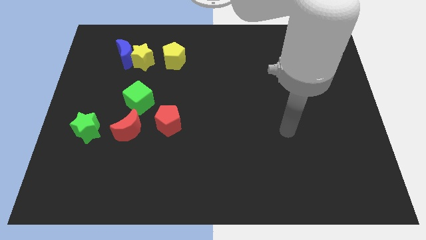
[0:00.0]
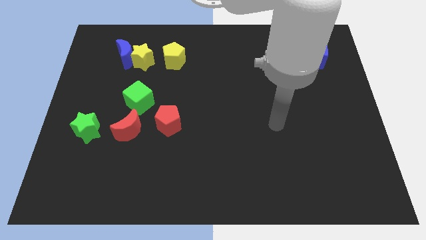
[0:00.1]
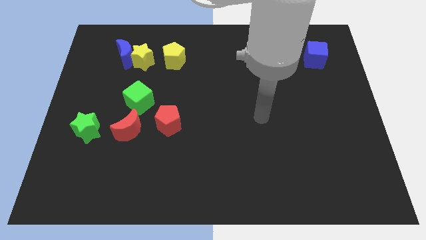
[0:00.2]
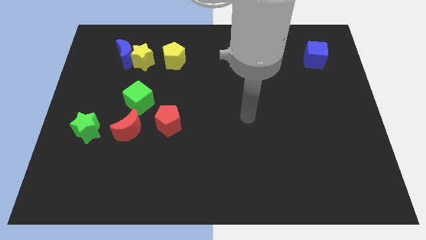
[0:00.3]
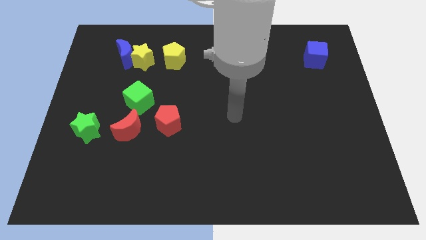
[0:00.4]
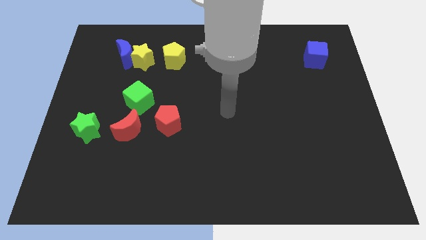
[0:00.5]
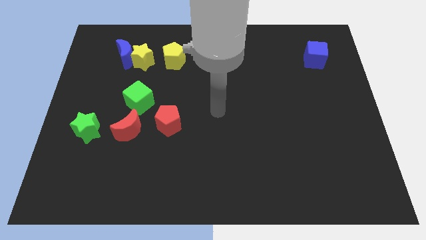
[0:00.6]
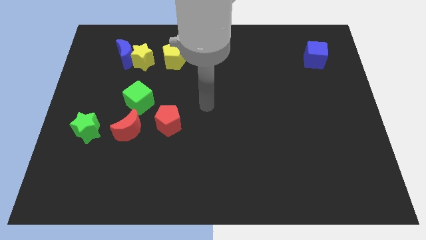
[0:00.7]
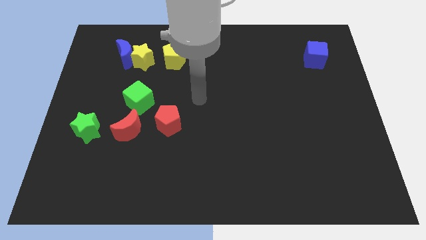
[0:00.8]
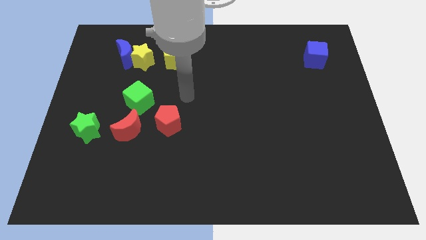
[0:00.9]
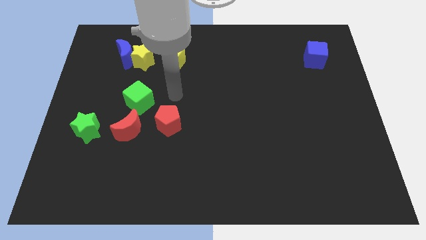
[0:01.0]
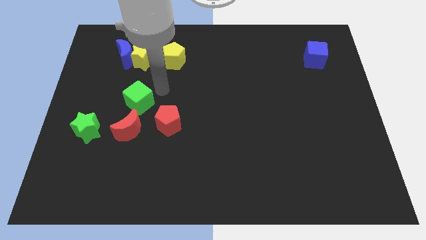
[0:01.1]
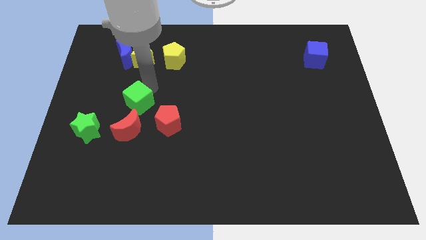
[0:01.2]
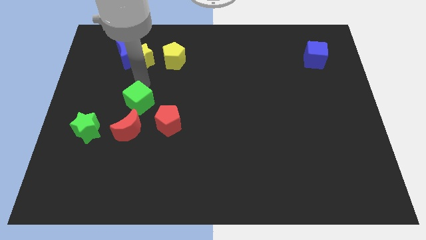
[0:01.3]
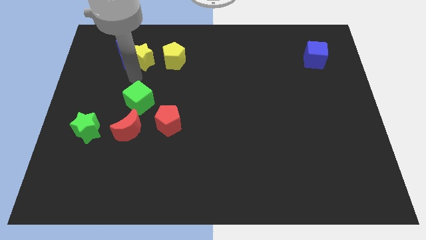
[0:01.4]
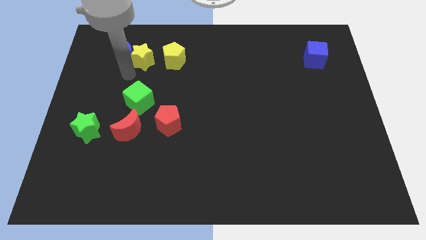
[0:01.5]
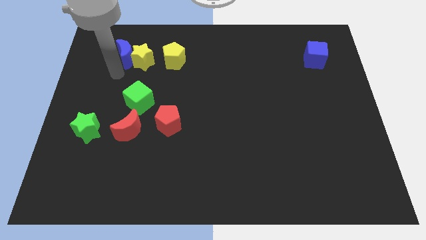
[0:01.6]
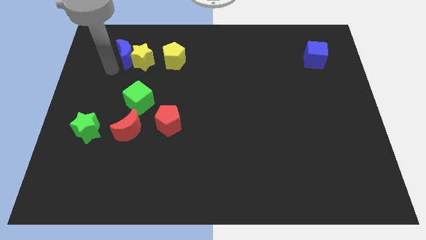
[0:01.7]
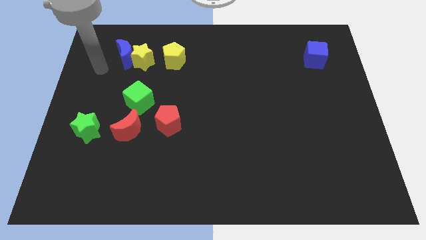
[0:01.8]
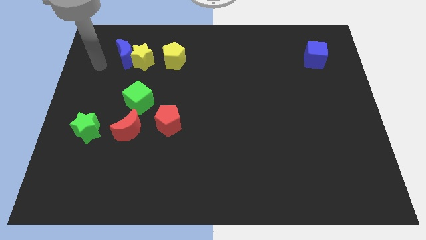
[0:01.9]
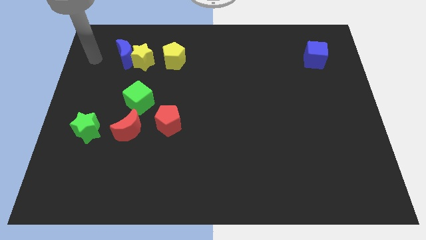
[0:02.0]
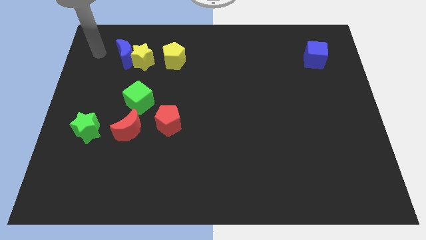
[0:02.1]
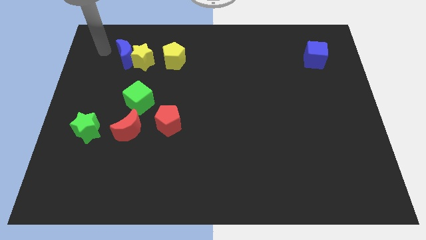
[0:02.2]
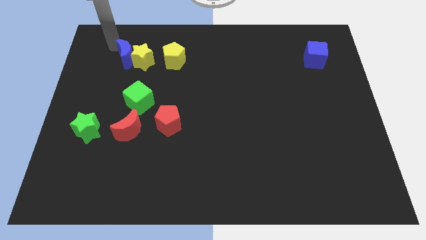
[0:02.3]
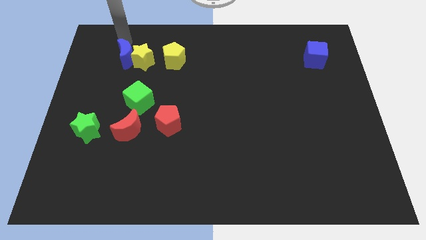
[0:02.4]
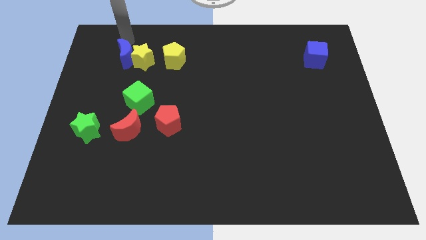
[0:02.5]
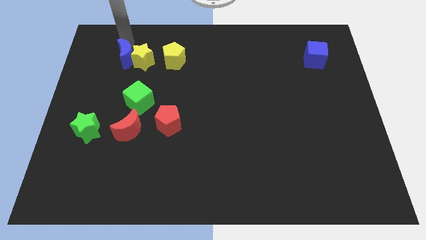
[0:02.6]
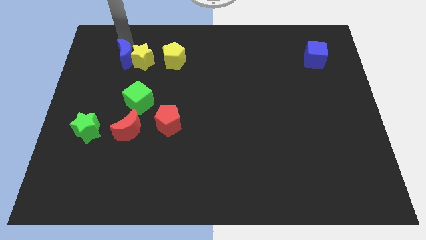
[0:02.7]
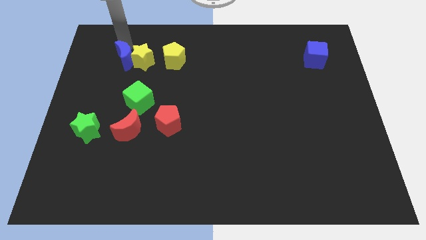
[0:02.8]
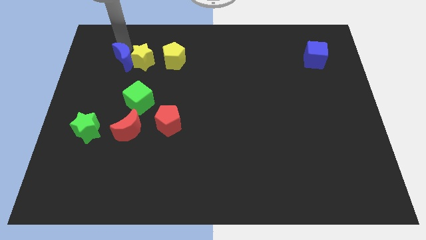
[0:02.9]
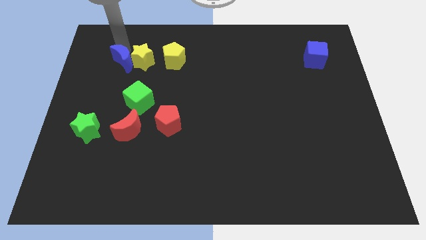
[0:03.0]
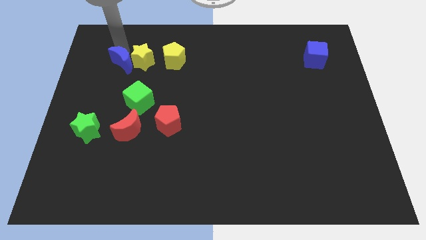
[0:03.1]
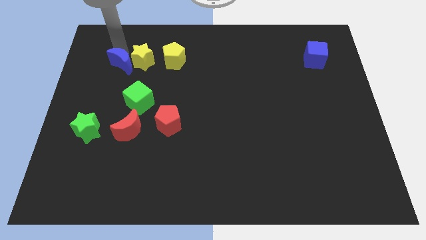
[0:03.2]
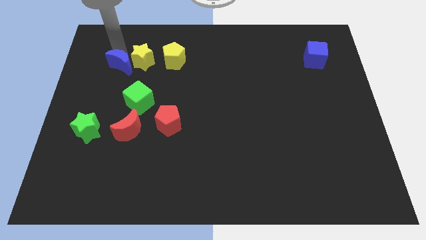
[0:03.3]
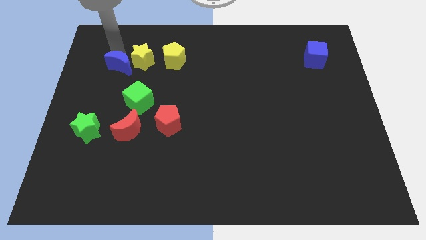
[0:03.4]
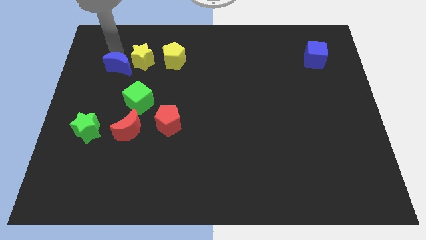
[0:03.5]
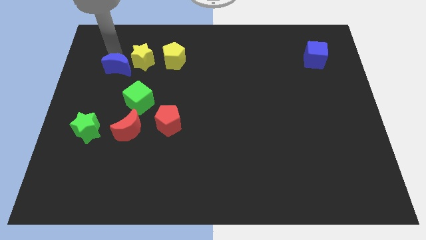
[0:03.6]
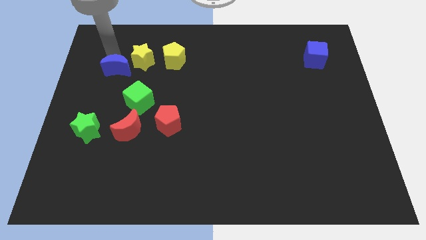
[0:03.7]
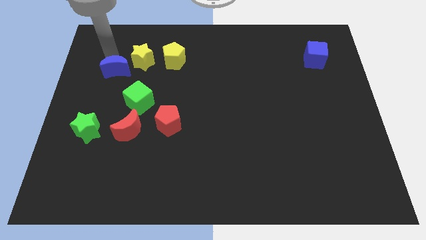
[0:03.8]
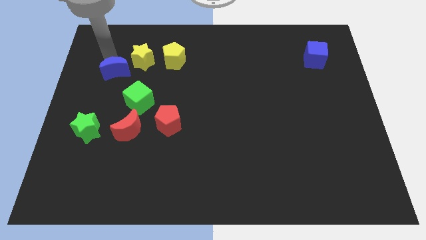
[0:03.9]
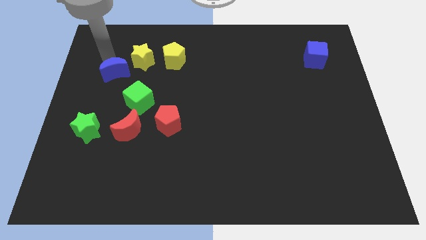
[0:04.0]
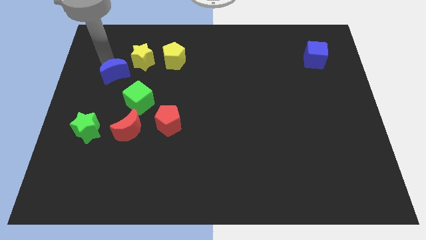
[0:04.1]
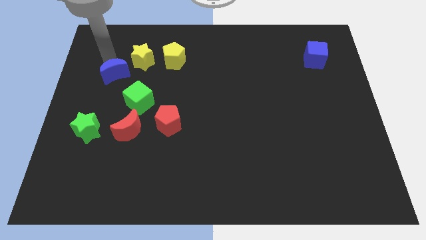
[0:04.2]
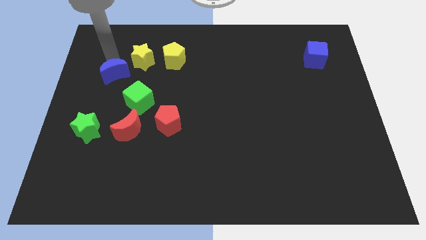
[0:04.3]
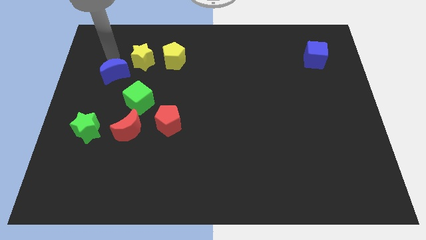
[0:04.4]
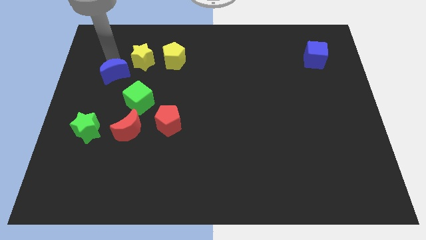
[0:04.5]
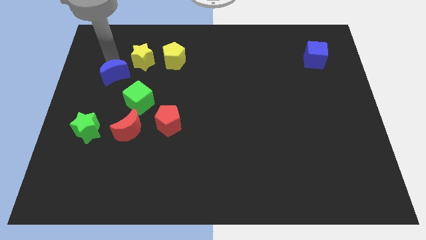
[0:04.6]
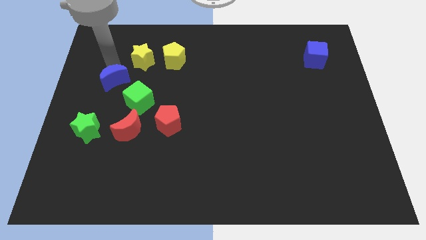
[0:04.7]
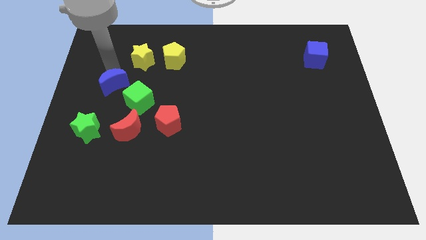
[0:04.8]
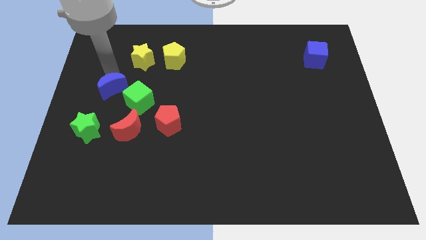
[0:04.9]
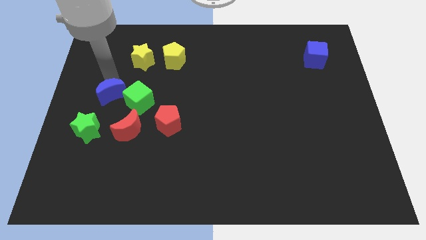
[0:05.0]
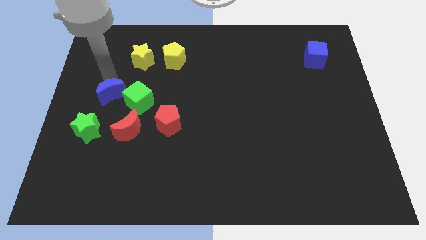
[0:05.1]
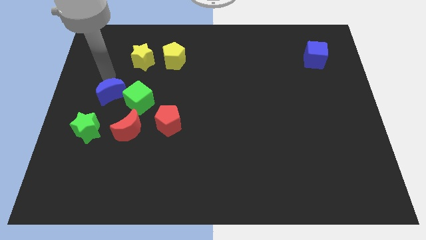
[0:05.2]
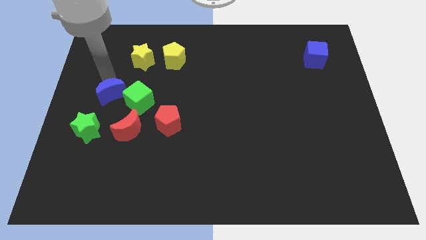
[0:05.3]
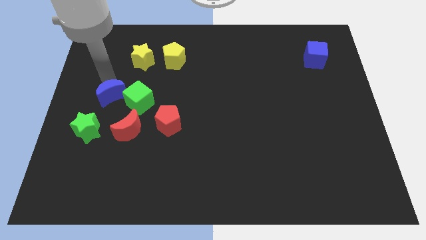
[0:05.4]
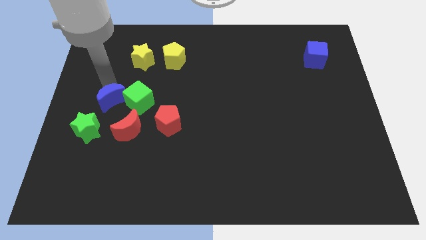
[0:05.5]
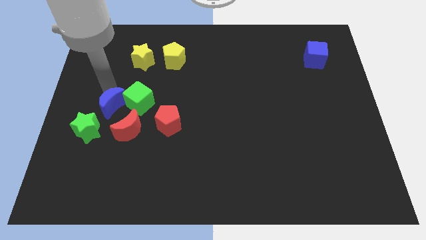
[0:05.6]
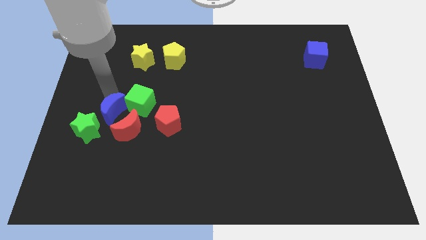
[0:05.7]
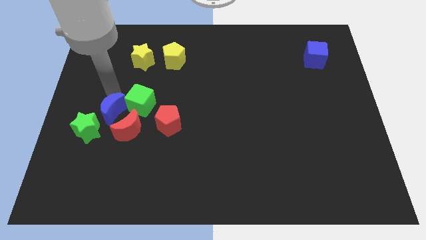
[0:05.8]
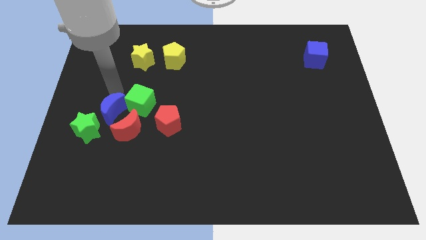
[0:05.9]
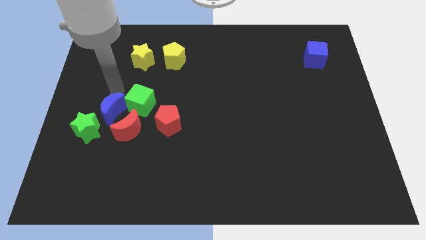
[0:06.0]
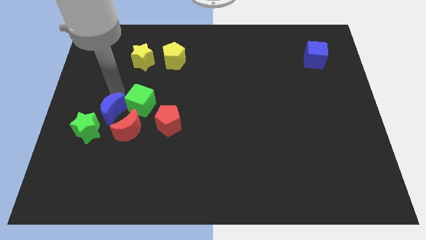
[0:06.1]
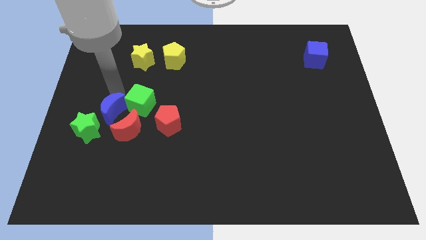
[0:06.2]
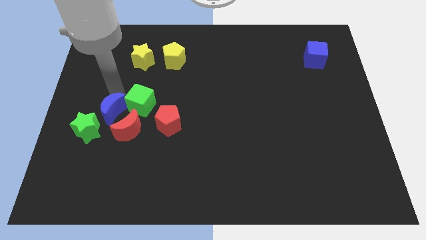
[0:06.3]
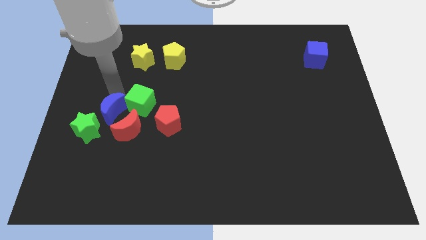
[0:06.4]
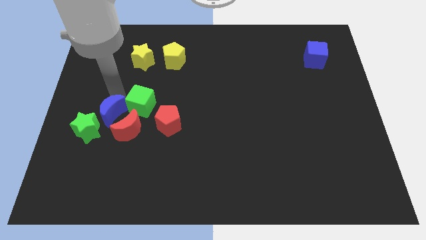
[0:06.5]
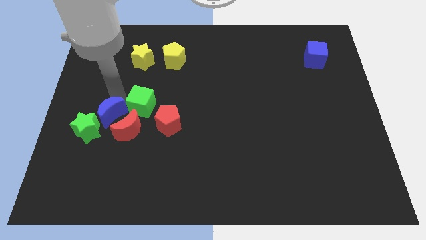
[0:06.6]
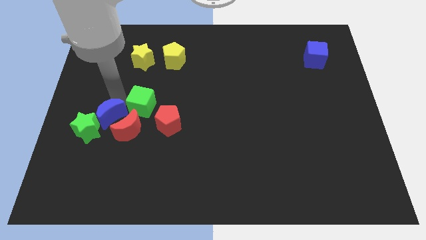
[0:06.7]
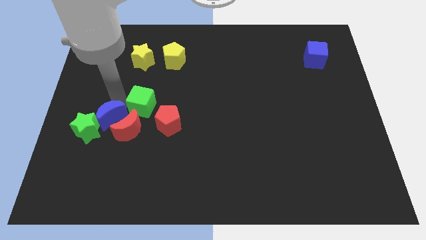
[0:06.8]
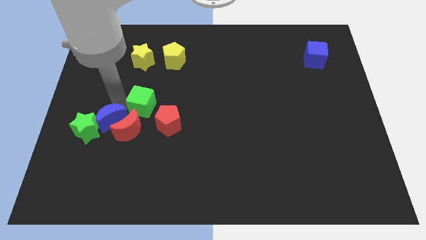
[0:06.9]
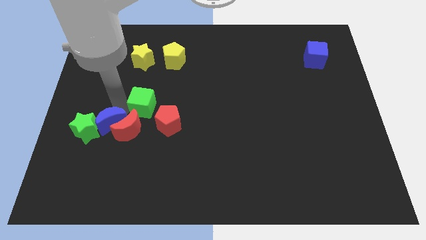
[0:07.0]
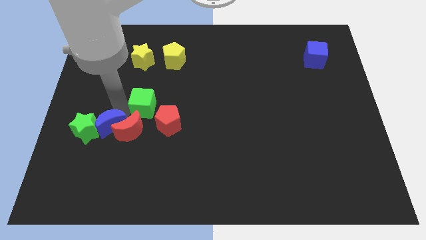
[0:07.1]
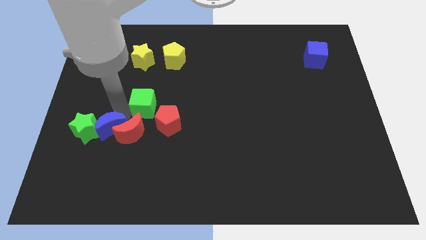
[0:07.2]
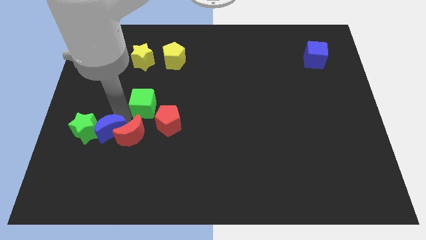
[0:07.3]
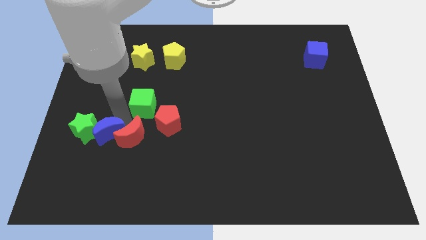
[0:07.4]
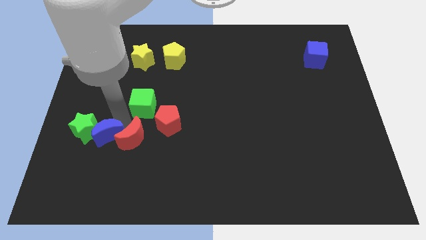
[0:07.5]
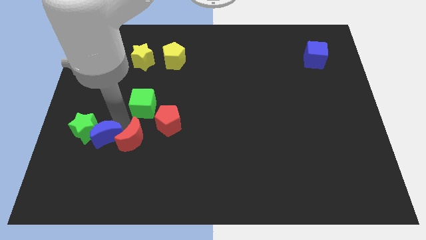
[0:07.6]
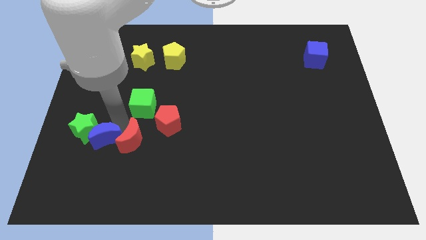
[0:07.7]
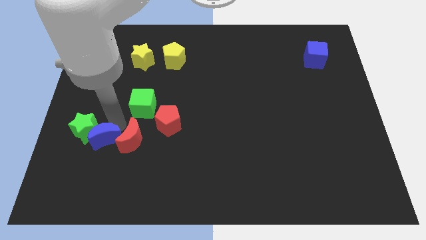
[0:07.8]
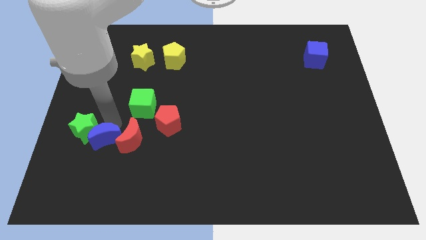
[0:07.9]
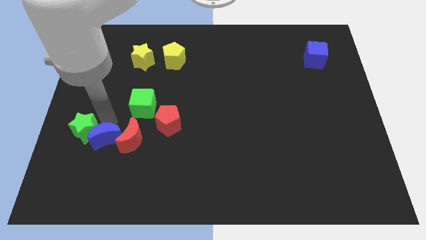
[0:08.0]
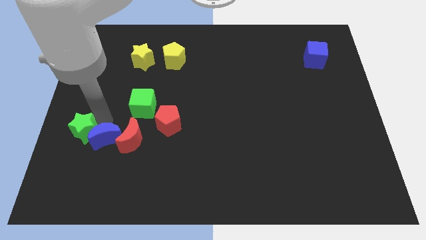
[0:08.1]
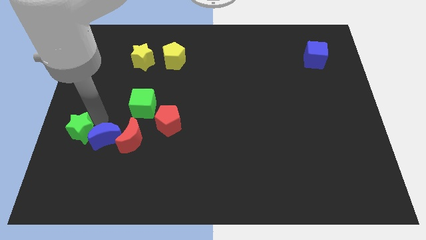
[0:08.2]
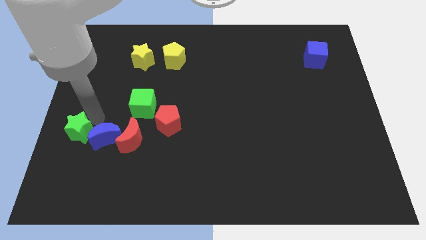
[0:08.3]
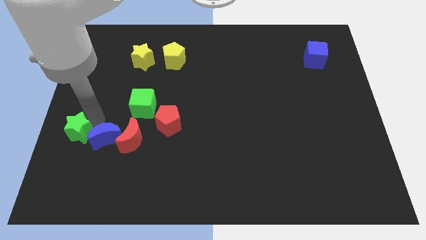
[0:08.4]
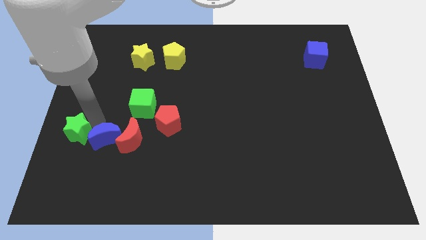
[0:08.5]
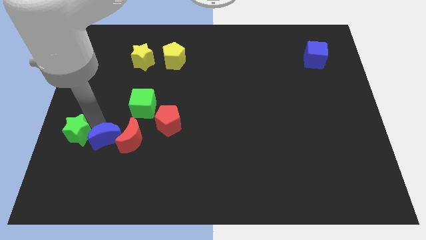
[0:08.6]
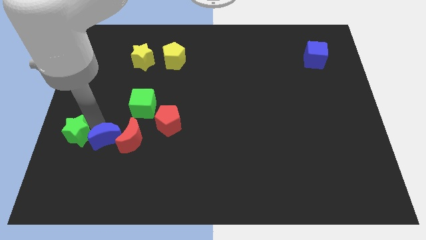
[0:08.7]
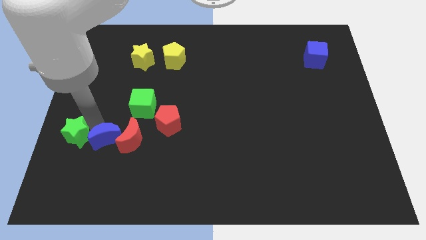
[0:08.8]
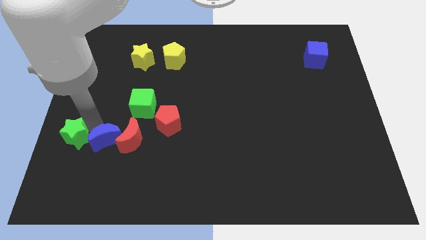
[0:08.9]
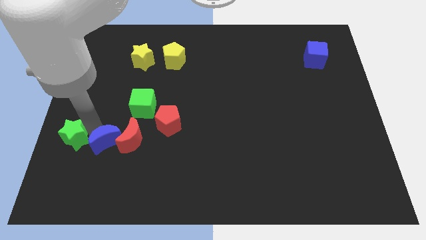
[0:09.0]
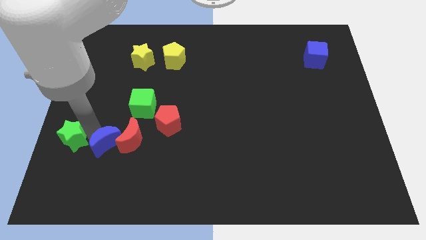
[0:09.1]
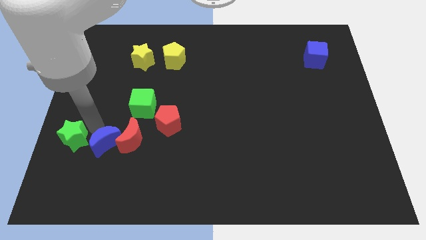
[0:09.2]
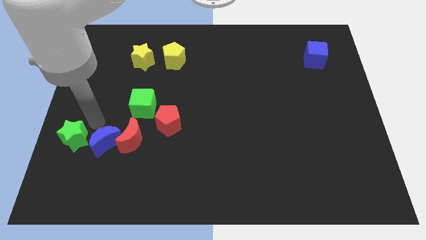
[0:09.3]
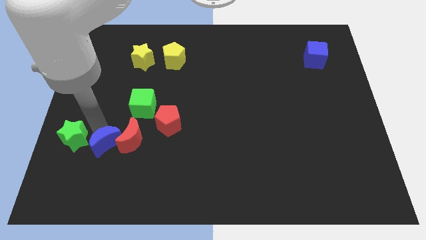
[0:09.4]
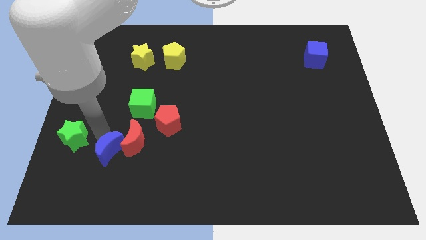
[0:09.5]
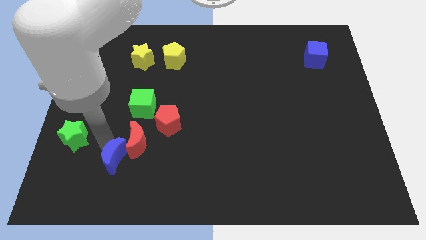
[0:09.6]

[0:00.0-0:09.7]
push the blue moon below the red moon
